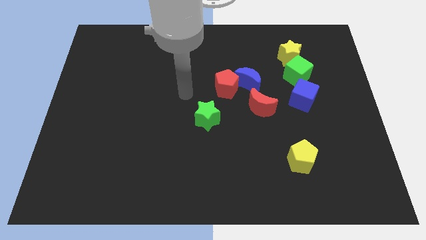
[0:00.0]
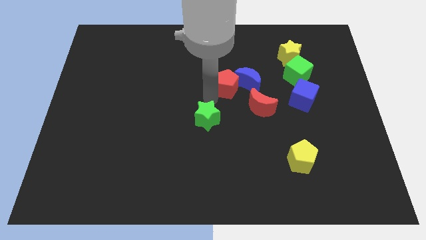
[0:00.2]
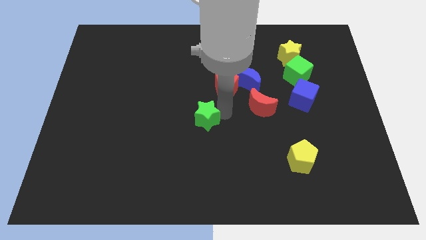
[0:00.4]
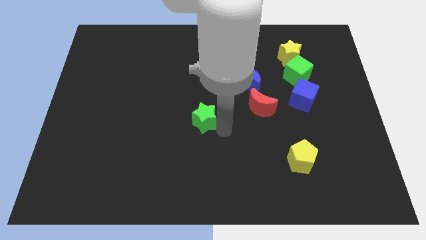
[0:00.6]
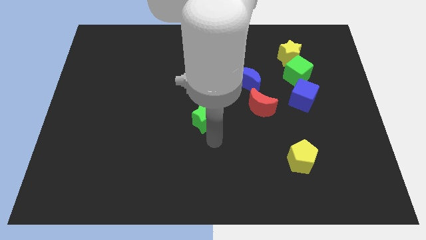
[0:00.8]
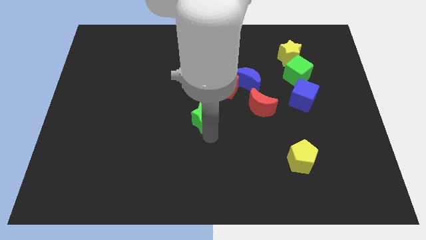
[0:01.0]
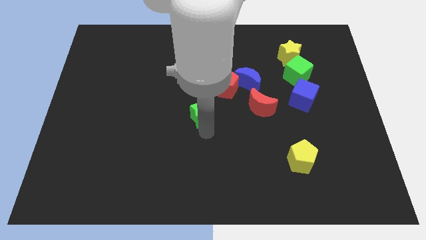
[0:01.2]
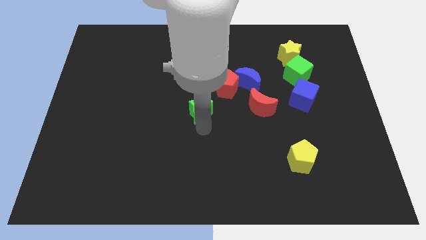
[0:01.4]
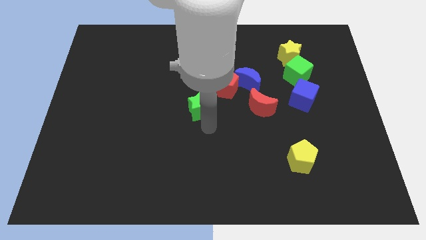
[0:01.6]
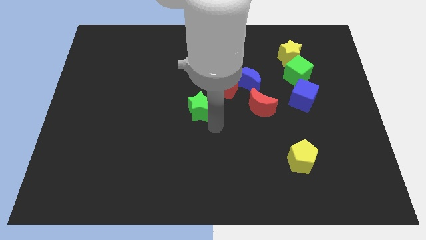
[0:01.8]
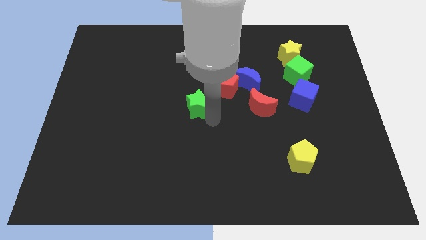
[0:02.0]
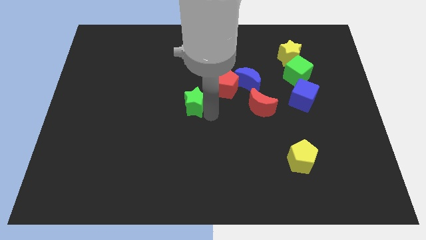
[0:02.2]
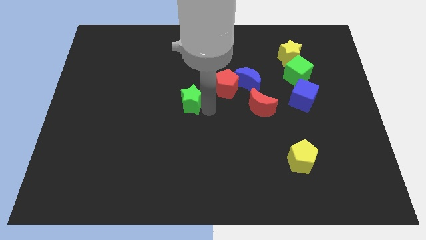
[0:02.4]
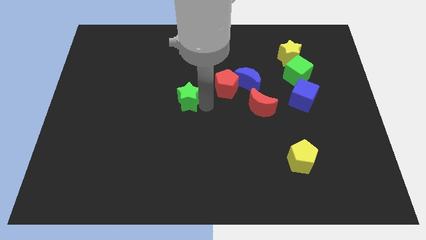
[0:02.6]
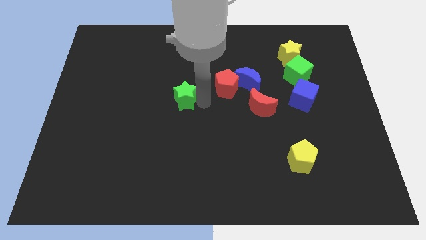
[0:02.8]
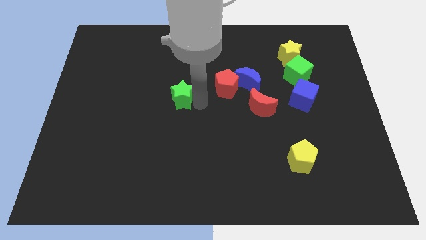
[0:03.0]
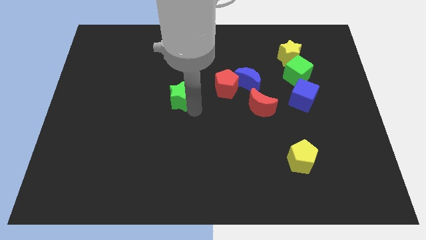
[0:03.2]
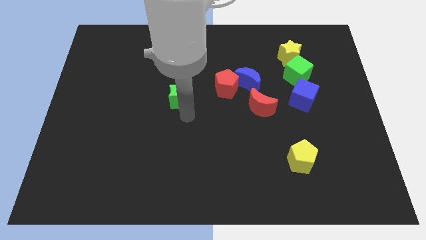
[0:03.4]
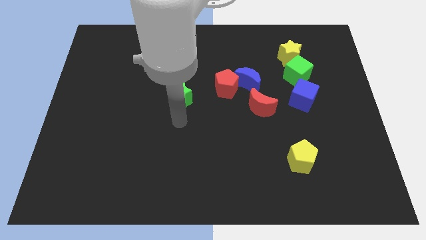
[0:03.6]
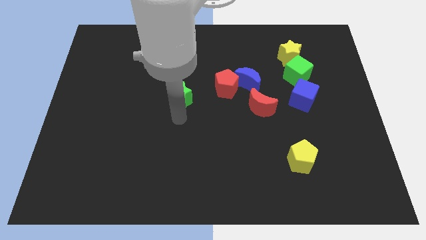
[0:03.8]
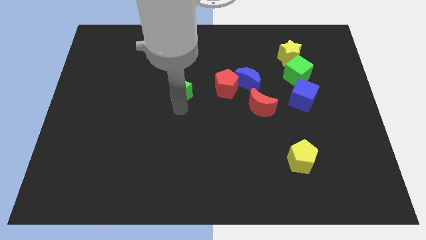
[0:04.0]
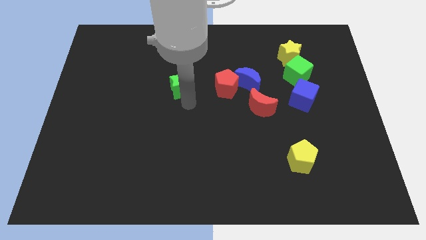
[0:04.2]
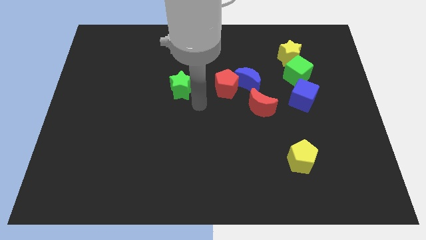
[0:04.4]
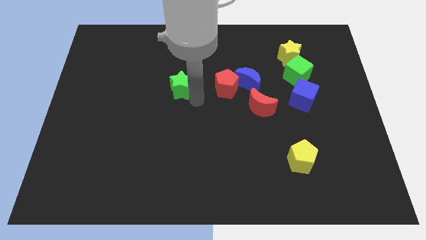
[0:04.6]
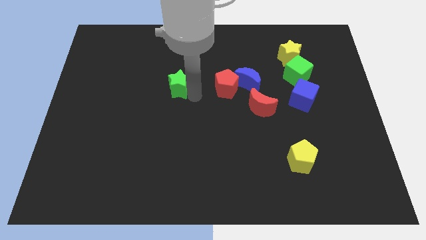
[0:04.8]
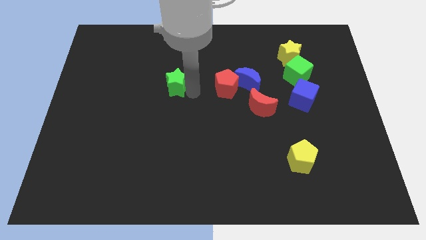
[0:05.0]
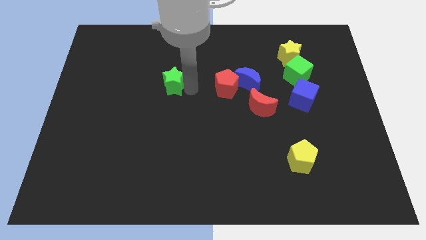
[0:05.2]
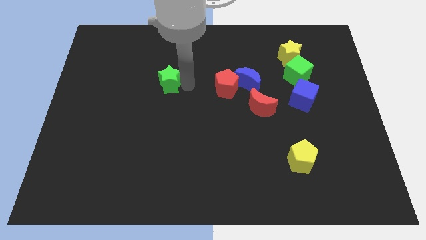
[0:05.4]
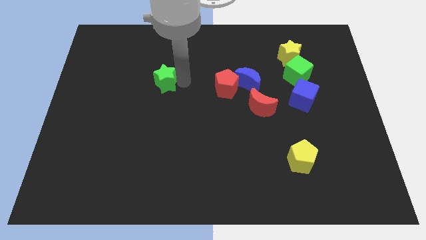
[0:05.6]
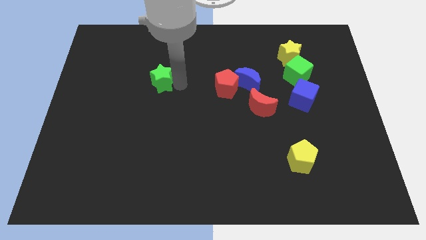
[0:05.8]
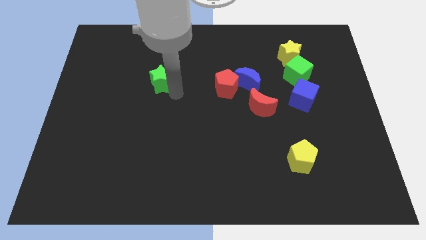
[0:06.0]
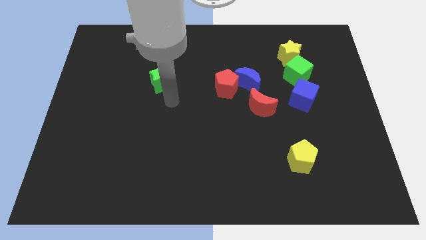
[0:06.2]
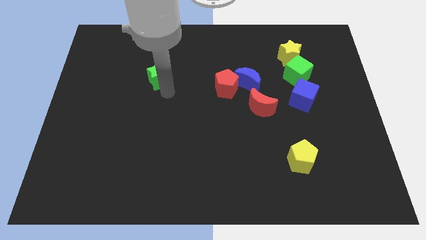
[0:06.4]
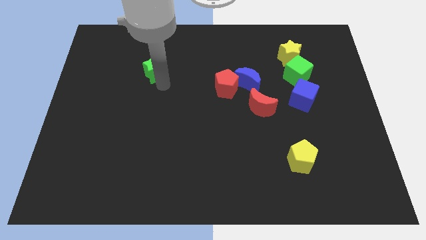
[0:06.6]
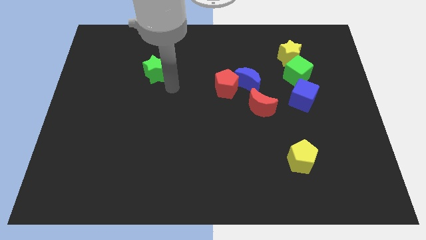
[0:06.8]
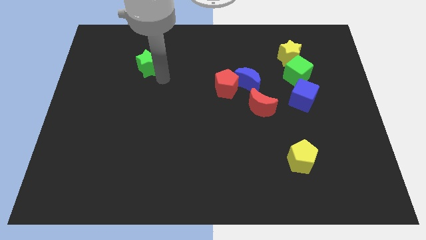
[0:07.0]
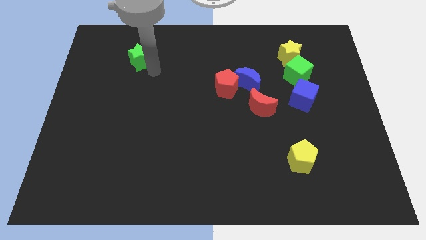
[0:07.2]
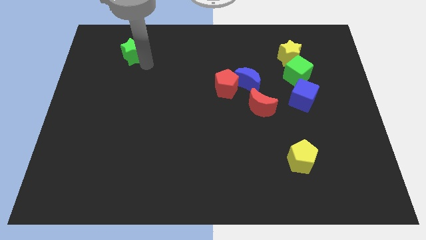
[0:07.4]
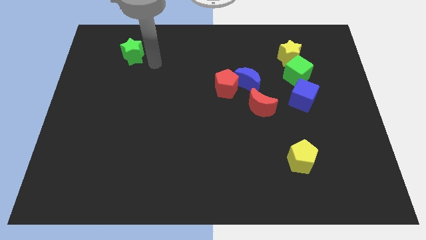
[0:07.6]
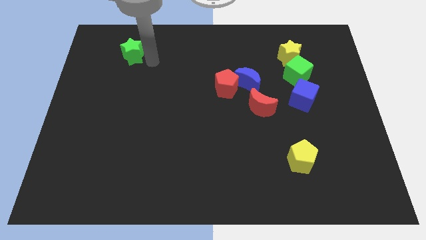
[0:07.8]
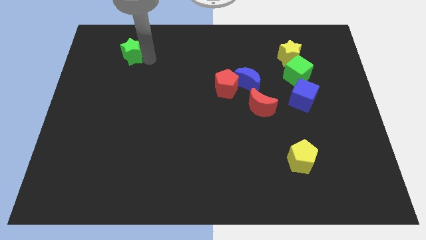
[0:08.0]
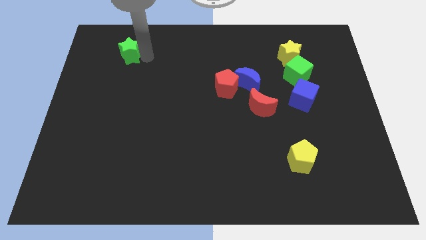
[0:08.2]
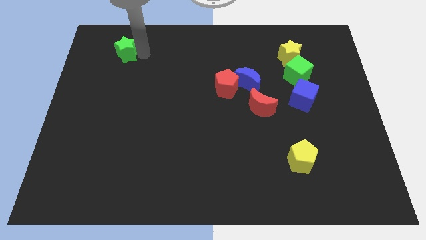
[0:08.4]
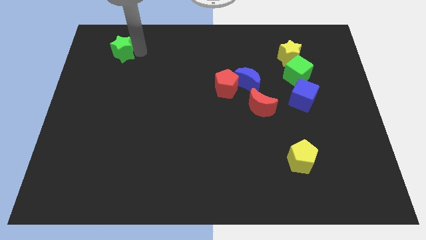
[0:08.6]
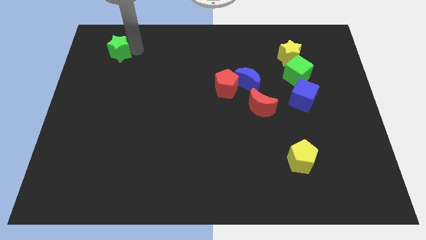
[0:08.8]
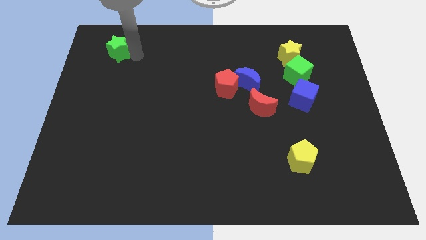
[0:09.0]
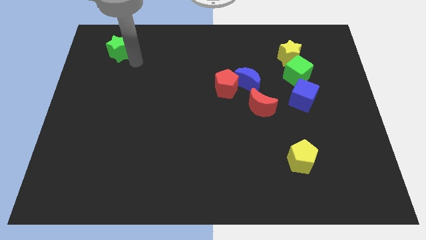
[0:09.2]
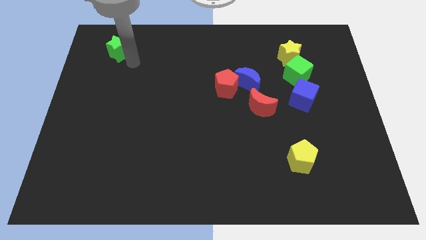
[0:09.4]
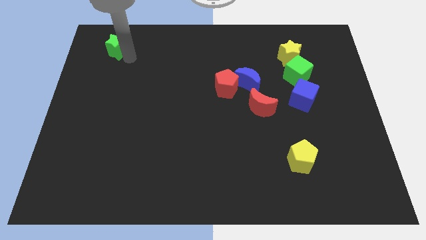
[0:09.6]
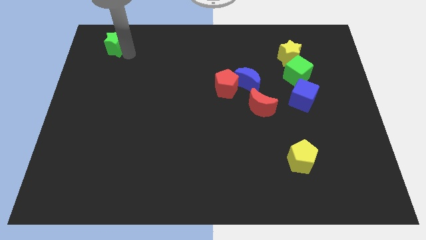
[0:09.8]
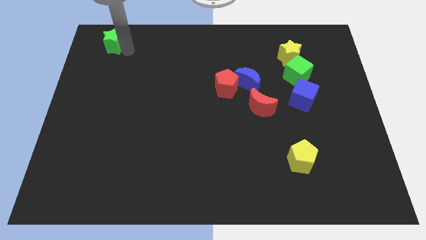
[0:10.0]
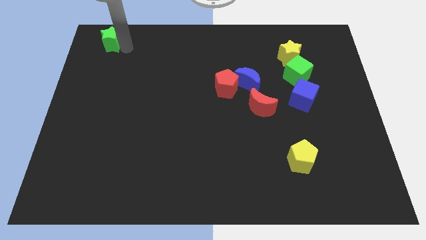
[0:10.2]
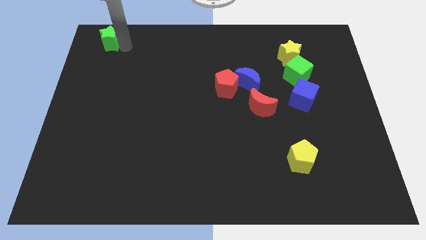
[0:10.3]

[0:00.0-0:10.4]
move the green star to the top left

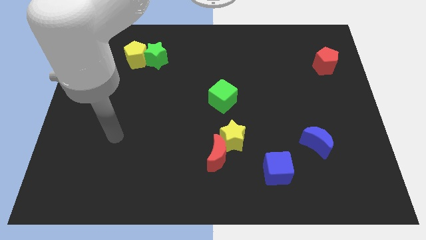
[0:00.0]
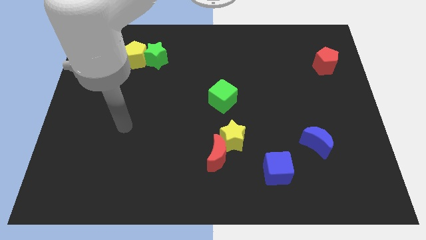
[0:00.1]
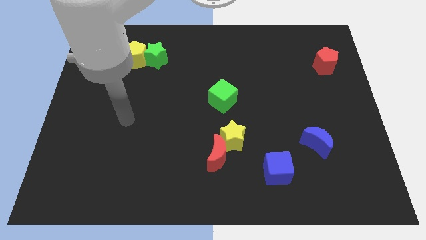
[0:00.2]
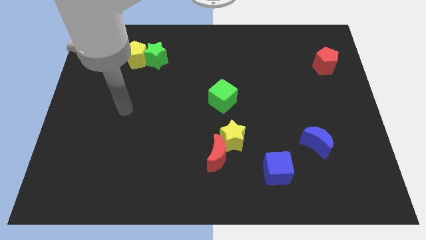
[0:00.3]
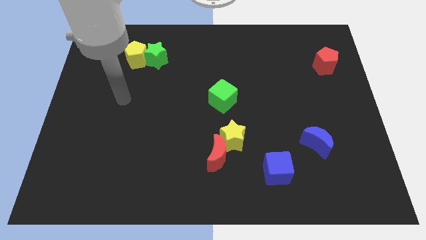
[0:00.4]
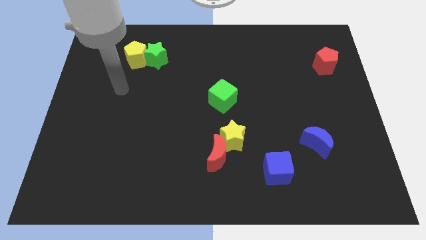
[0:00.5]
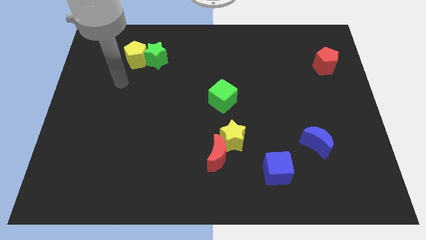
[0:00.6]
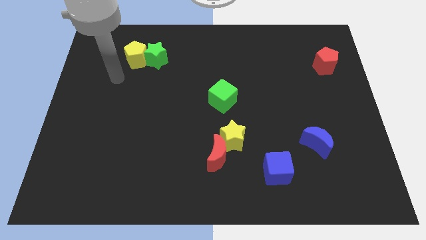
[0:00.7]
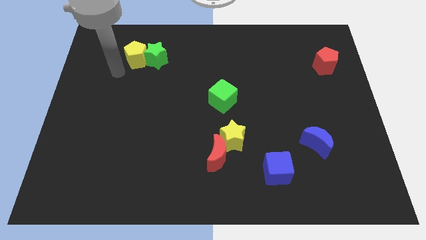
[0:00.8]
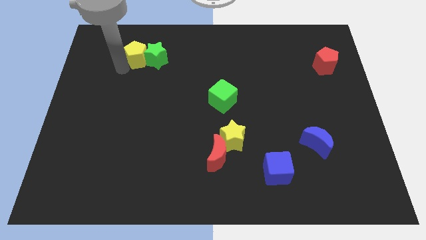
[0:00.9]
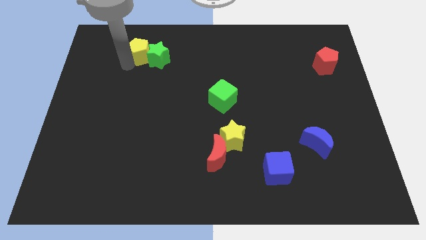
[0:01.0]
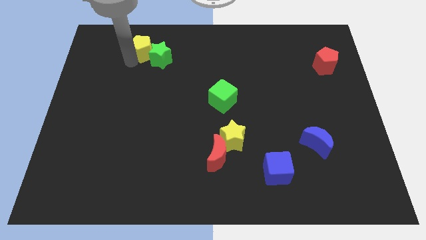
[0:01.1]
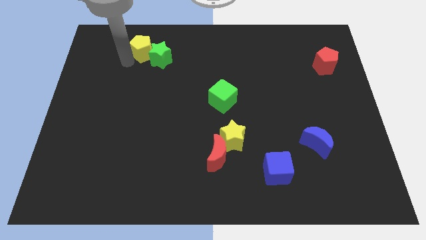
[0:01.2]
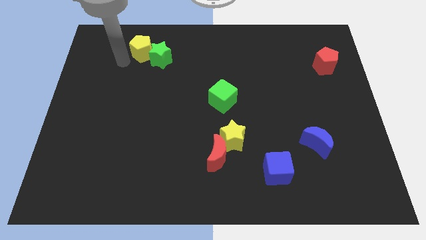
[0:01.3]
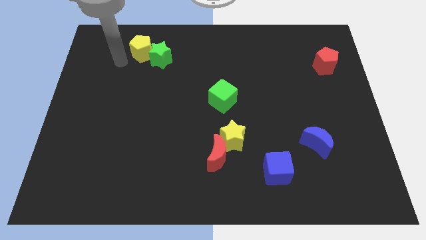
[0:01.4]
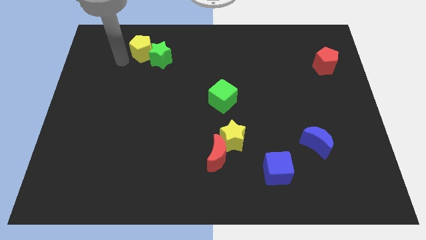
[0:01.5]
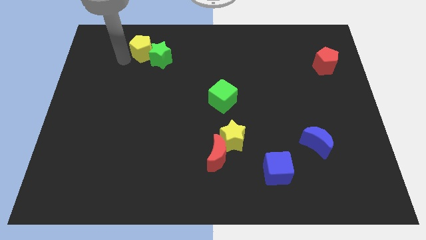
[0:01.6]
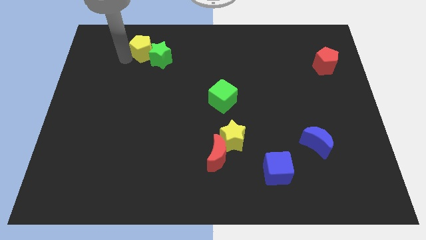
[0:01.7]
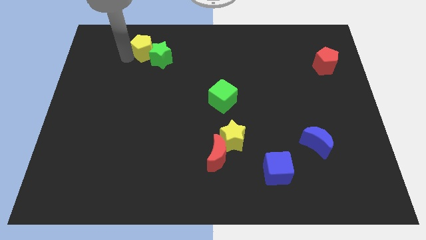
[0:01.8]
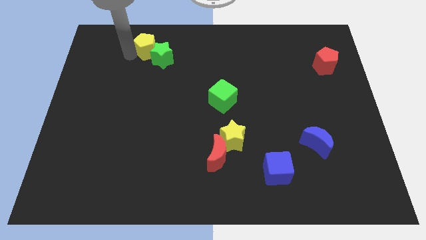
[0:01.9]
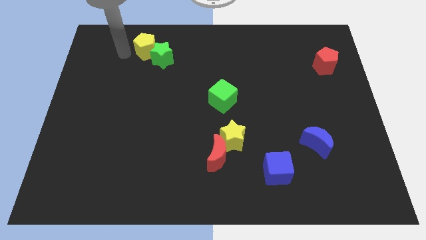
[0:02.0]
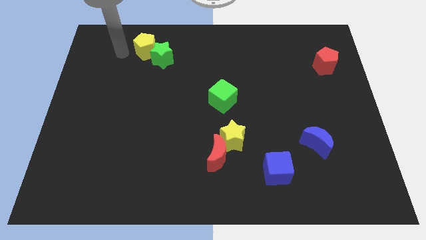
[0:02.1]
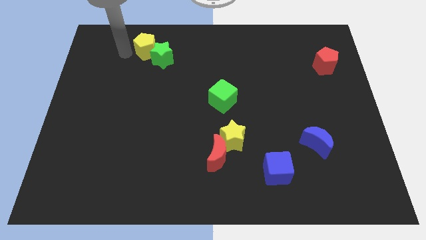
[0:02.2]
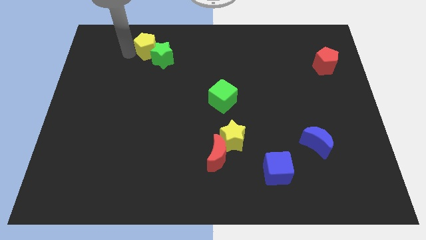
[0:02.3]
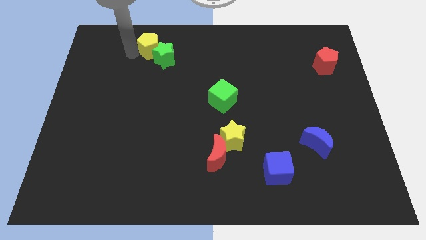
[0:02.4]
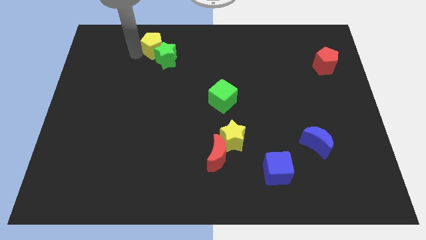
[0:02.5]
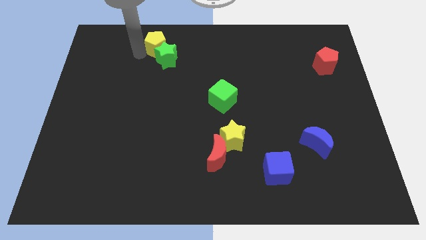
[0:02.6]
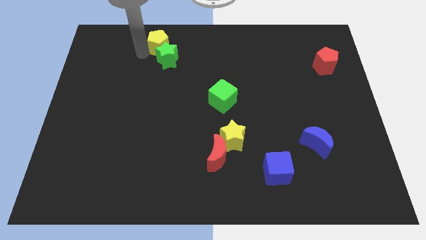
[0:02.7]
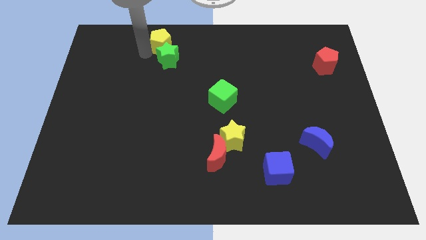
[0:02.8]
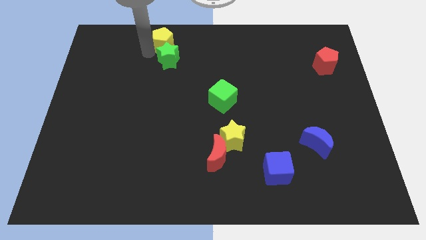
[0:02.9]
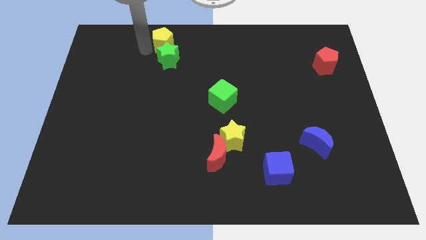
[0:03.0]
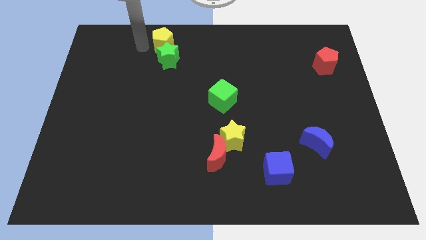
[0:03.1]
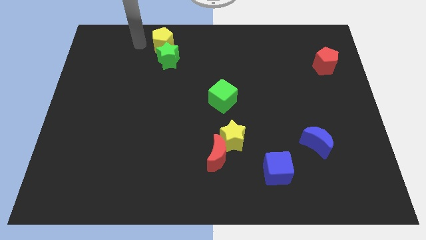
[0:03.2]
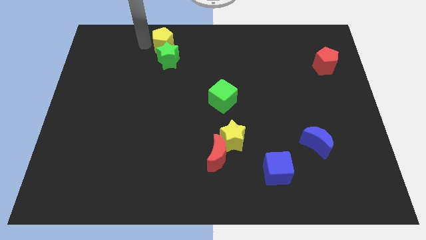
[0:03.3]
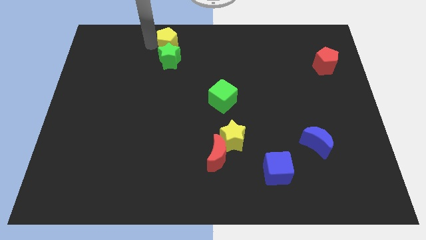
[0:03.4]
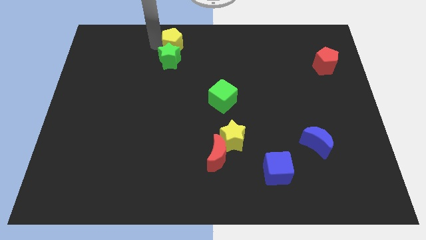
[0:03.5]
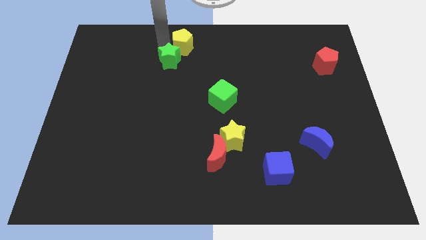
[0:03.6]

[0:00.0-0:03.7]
put the yellow pentagon to the top
